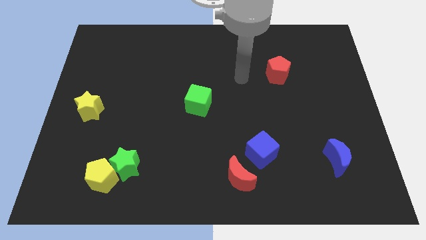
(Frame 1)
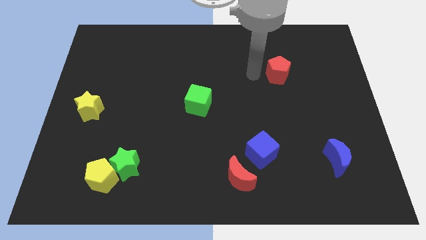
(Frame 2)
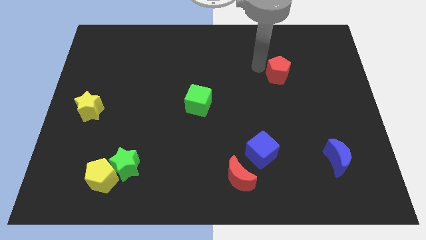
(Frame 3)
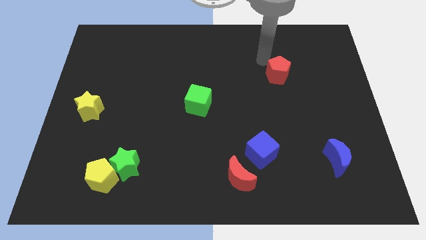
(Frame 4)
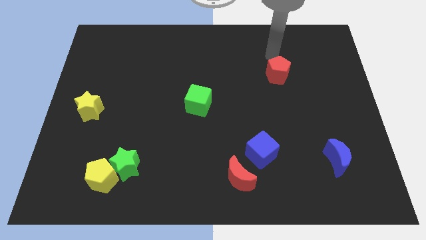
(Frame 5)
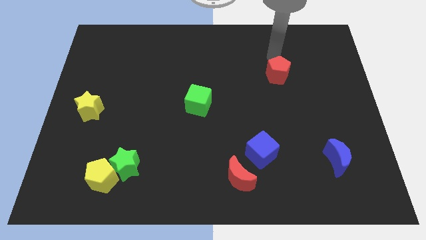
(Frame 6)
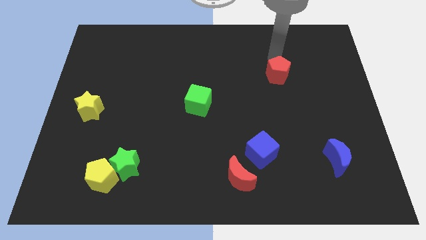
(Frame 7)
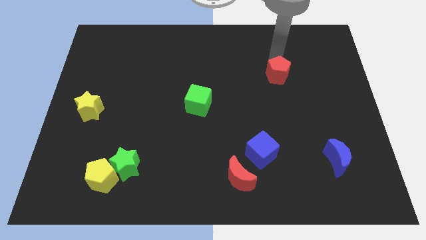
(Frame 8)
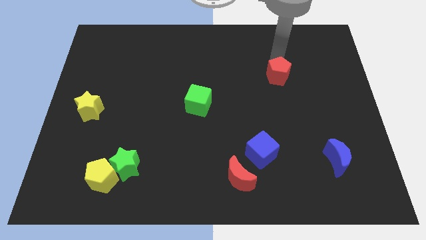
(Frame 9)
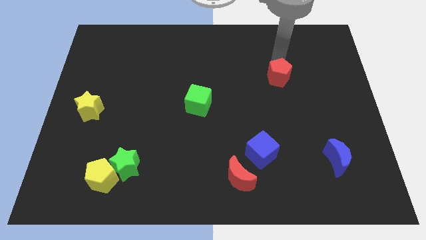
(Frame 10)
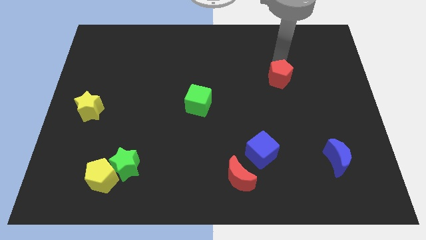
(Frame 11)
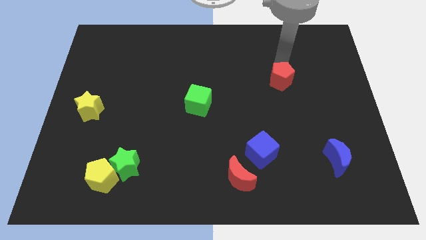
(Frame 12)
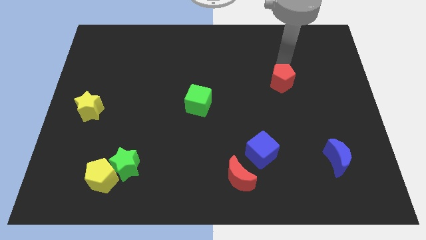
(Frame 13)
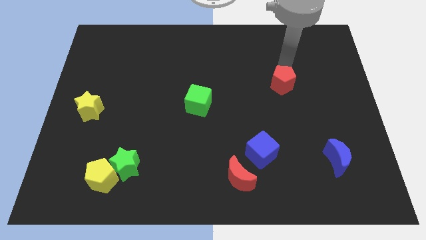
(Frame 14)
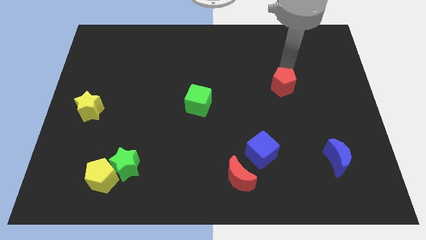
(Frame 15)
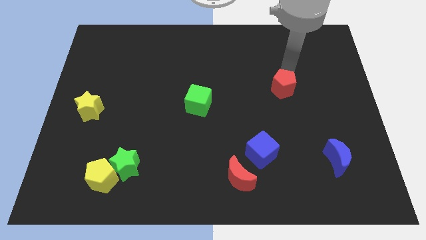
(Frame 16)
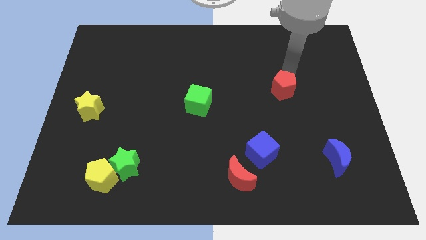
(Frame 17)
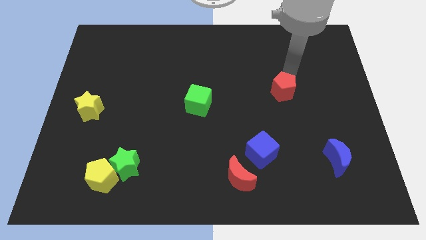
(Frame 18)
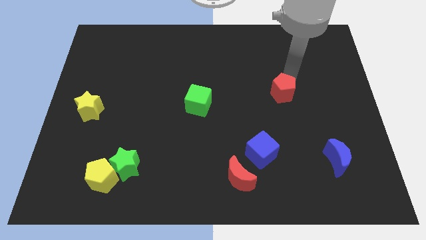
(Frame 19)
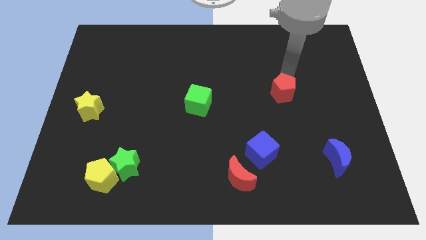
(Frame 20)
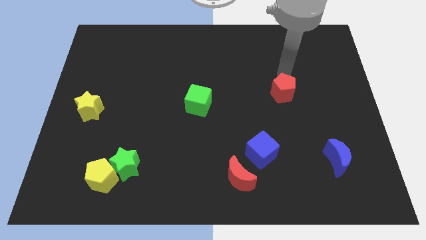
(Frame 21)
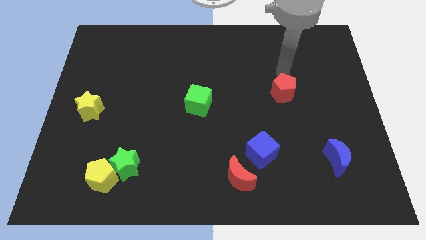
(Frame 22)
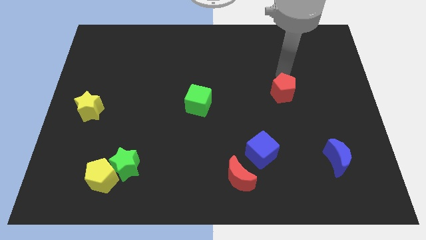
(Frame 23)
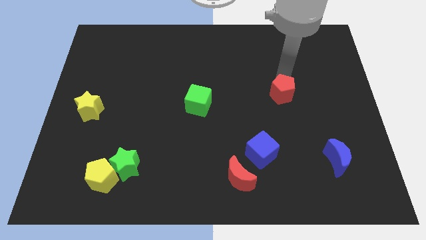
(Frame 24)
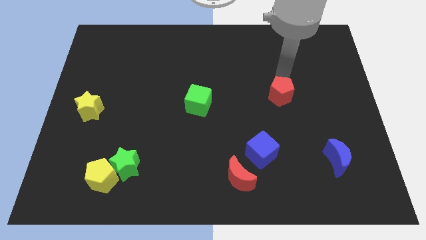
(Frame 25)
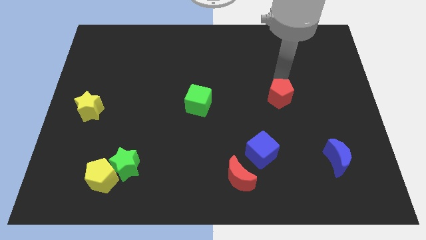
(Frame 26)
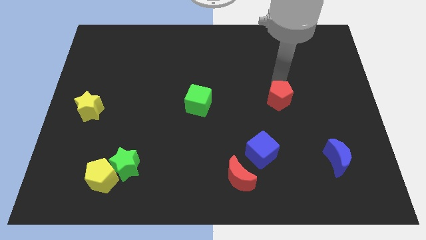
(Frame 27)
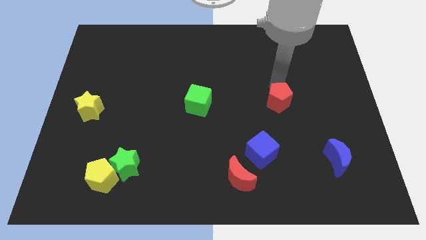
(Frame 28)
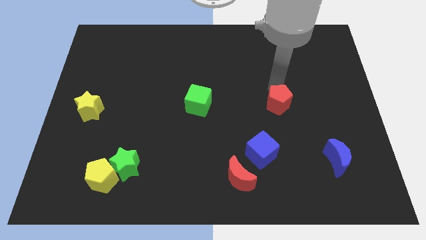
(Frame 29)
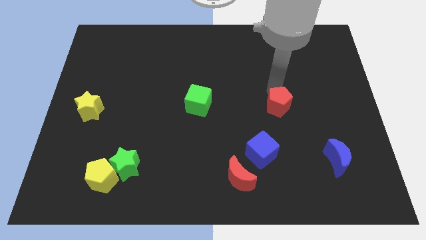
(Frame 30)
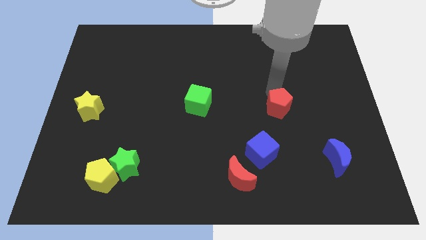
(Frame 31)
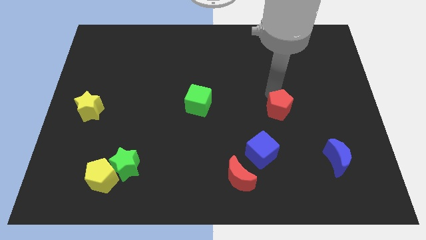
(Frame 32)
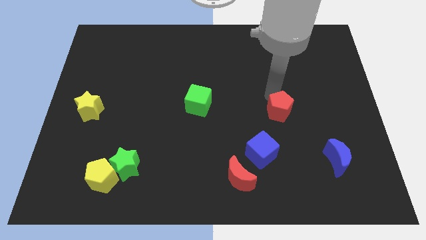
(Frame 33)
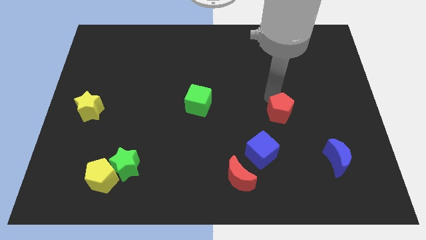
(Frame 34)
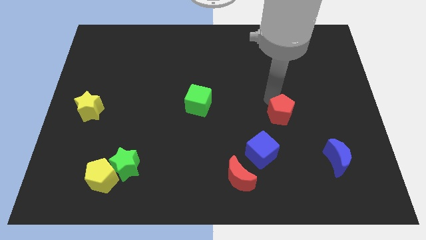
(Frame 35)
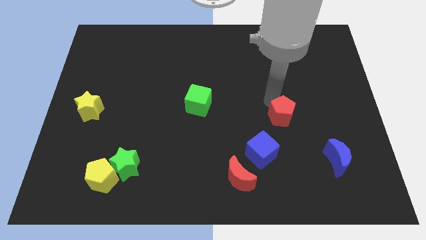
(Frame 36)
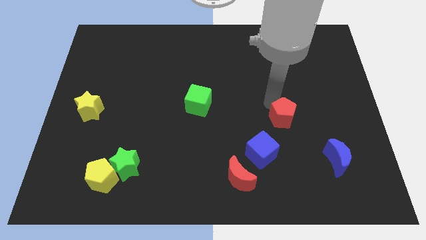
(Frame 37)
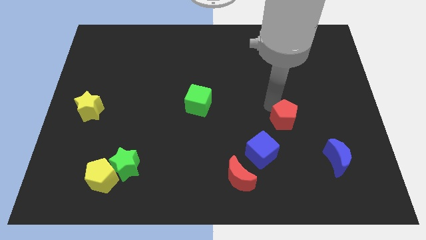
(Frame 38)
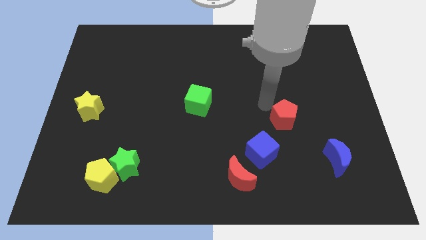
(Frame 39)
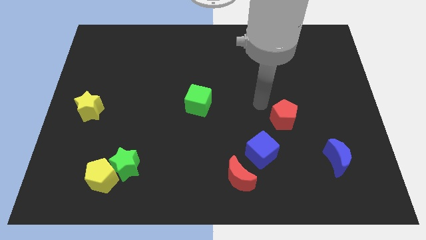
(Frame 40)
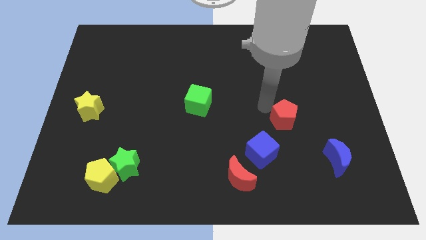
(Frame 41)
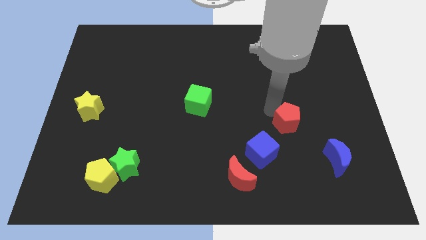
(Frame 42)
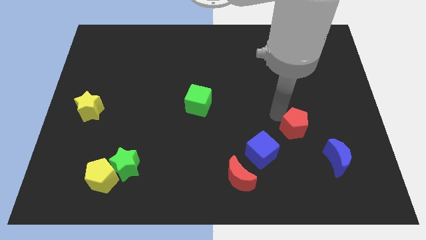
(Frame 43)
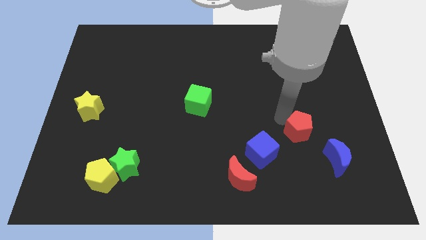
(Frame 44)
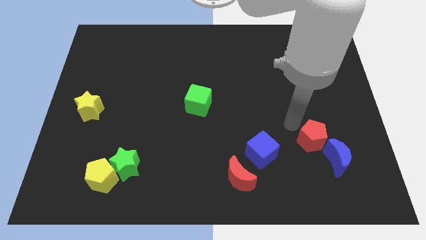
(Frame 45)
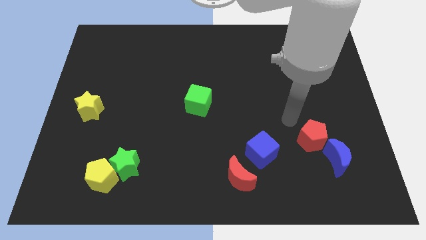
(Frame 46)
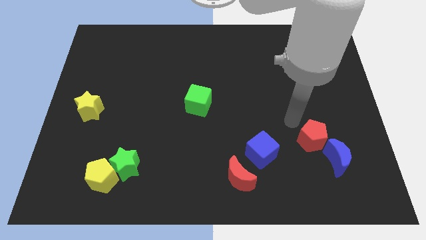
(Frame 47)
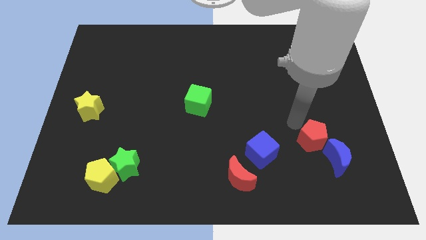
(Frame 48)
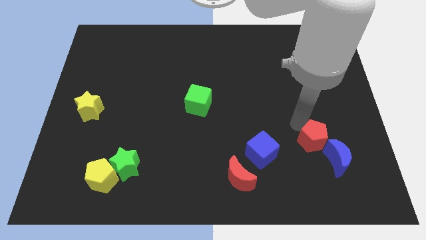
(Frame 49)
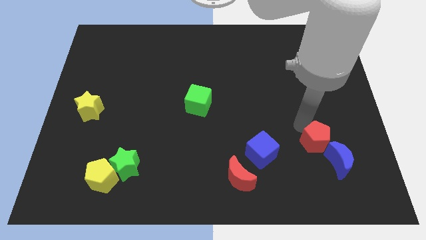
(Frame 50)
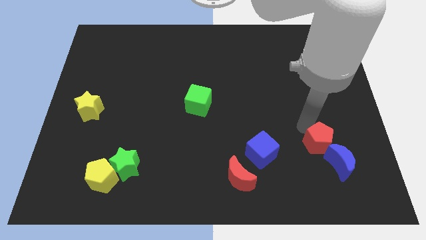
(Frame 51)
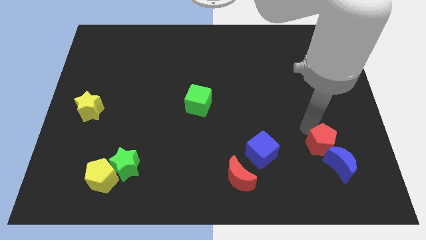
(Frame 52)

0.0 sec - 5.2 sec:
move the red pentagon close to the blue moon

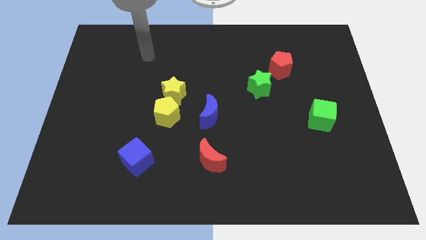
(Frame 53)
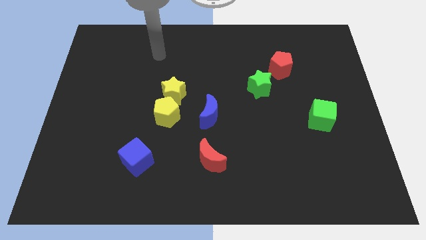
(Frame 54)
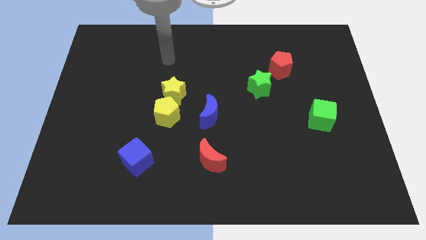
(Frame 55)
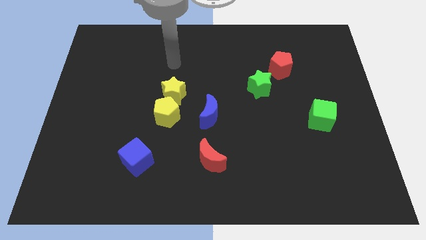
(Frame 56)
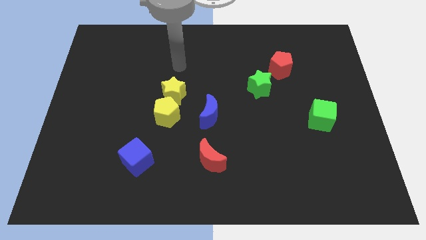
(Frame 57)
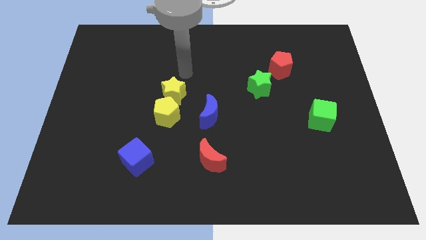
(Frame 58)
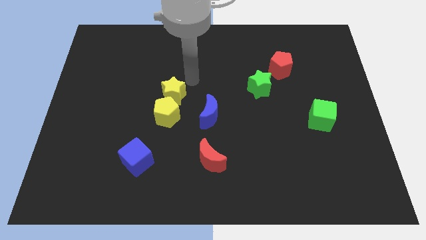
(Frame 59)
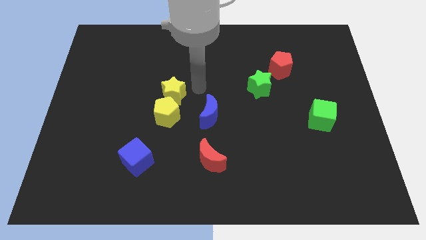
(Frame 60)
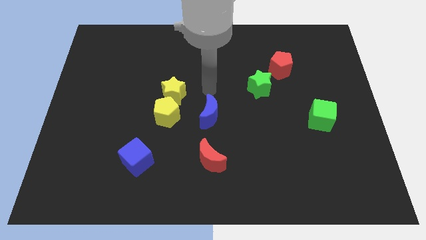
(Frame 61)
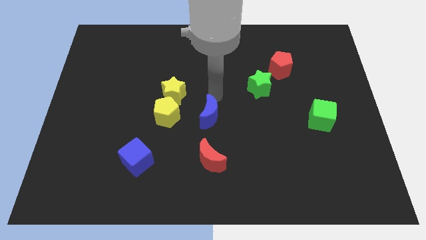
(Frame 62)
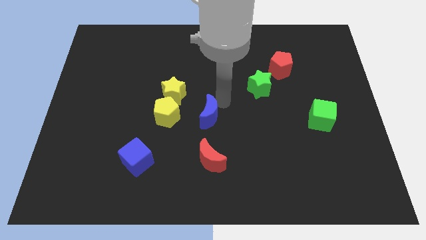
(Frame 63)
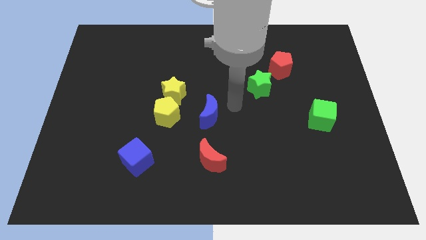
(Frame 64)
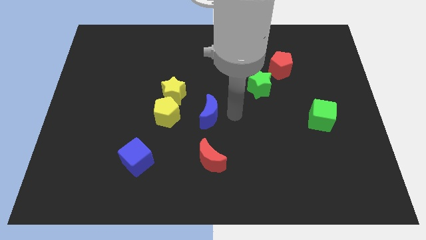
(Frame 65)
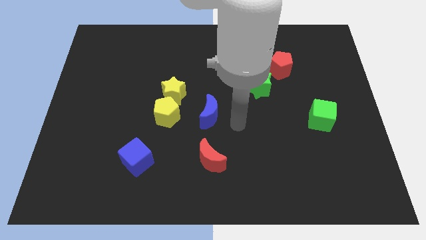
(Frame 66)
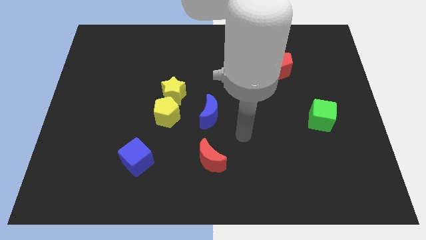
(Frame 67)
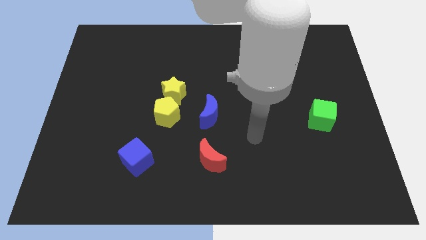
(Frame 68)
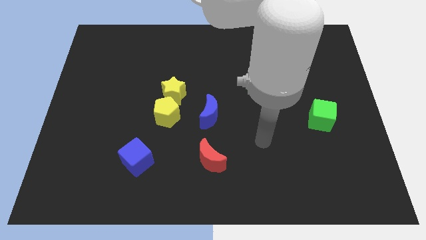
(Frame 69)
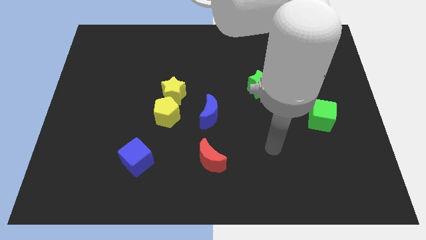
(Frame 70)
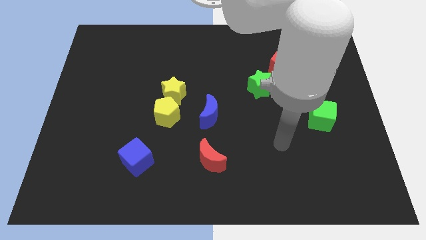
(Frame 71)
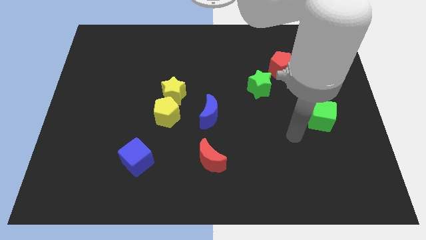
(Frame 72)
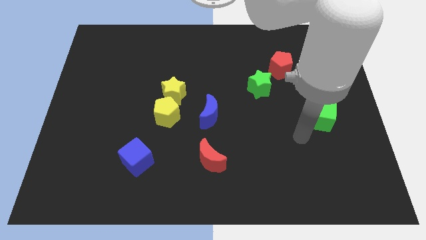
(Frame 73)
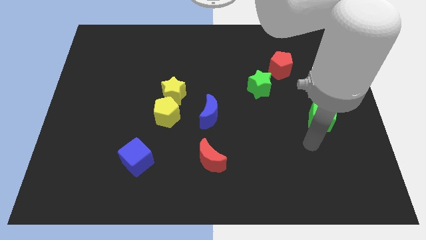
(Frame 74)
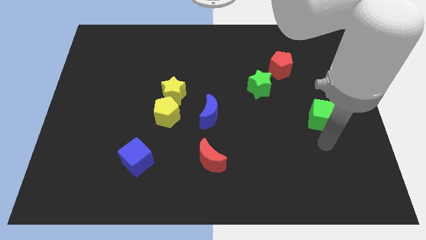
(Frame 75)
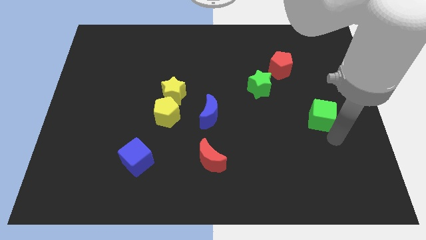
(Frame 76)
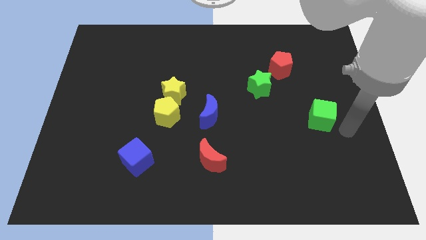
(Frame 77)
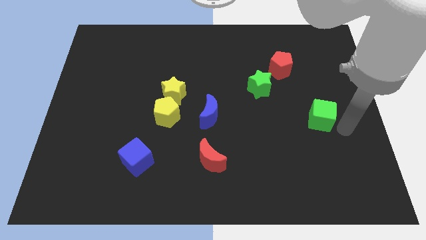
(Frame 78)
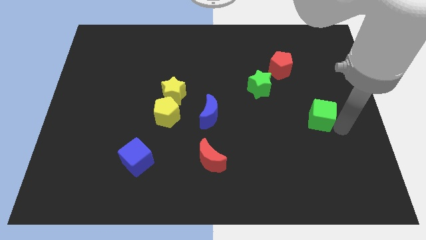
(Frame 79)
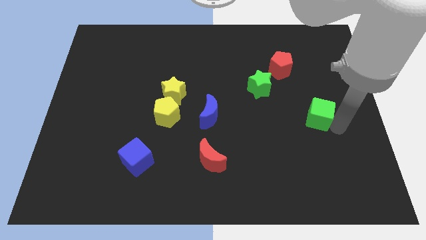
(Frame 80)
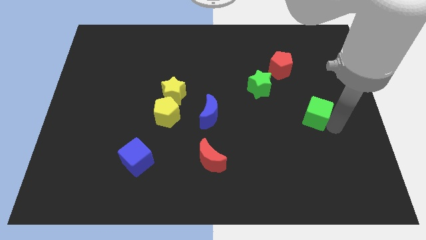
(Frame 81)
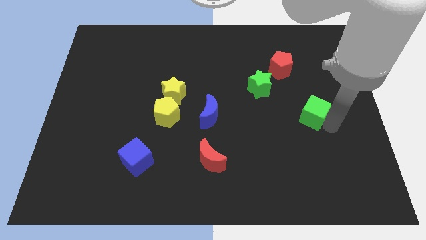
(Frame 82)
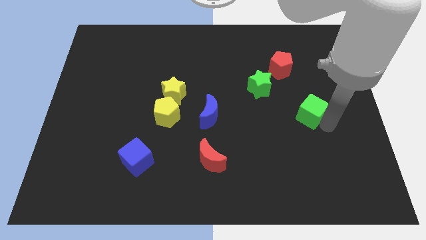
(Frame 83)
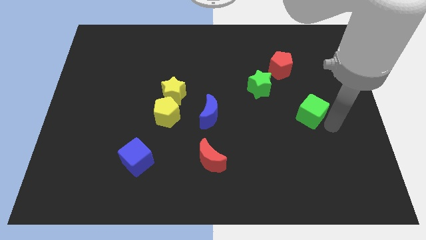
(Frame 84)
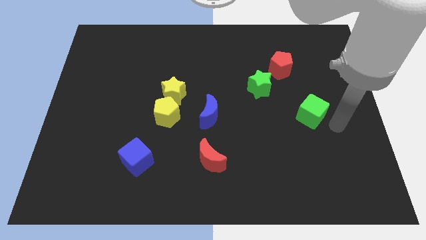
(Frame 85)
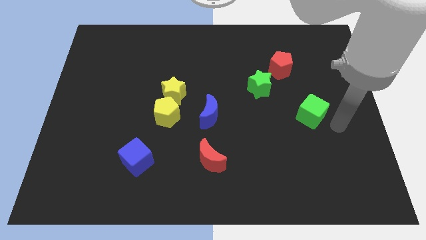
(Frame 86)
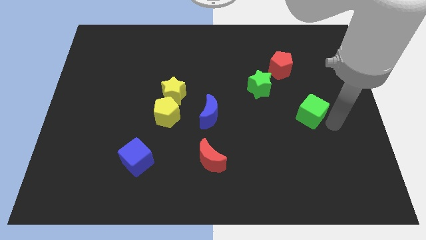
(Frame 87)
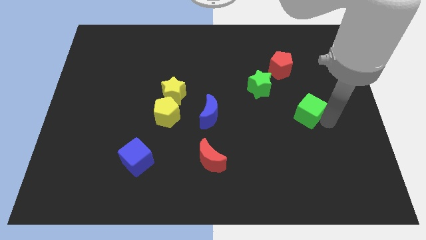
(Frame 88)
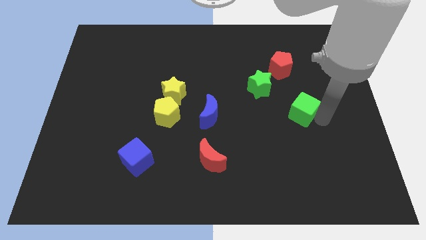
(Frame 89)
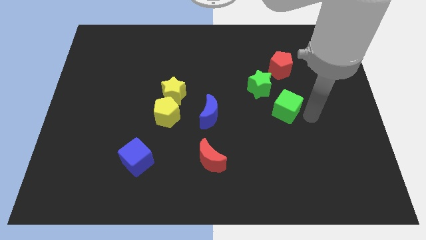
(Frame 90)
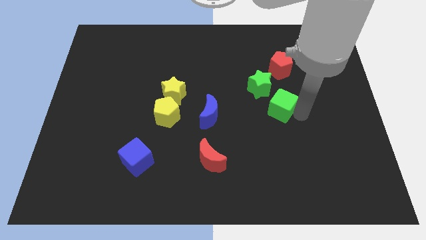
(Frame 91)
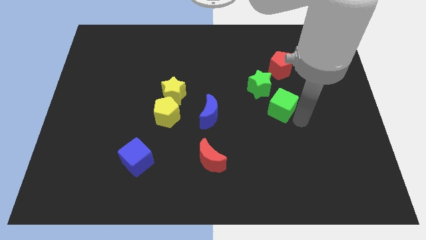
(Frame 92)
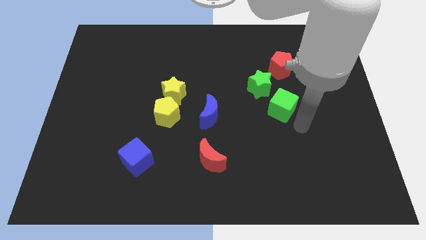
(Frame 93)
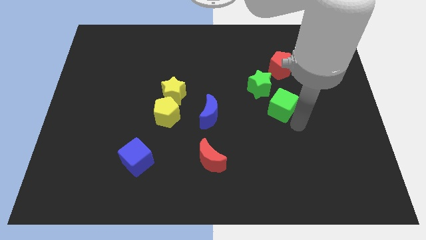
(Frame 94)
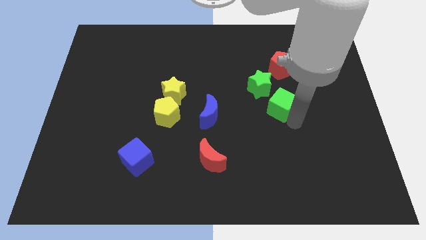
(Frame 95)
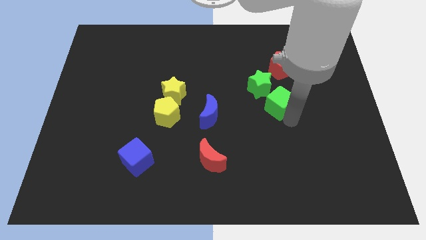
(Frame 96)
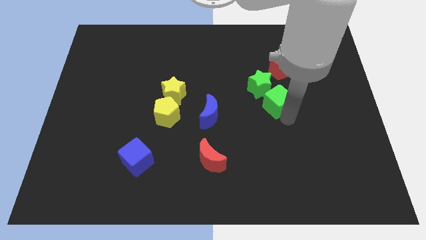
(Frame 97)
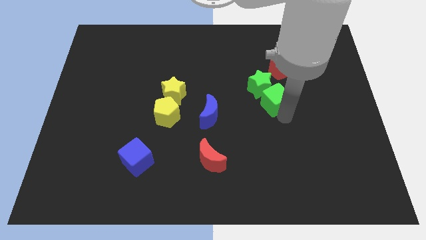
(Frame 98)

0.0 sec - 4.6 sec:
slide the green cube to the green star
